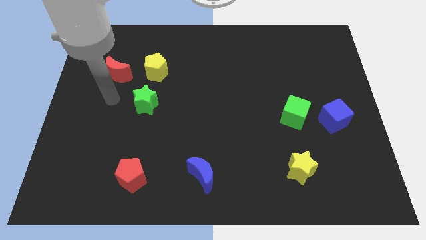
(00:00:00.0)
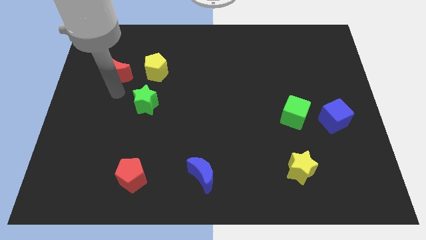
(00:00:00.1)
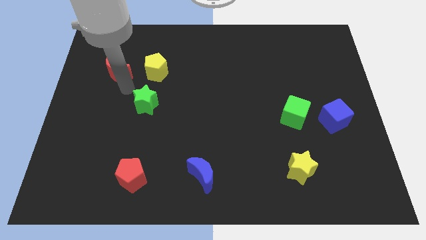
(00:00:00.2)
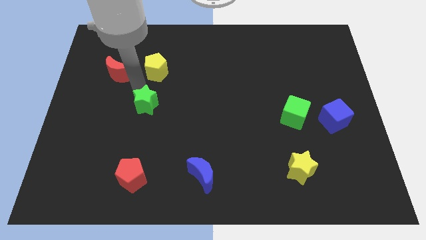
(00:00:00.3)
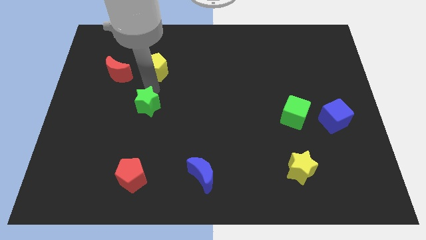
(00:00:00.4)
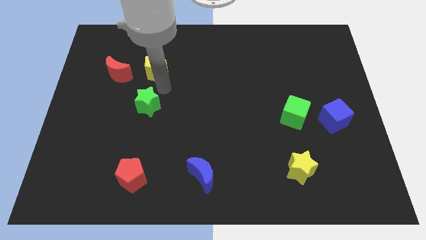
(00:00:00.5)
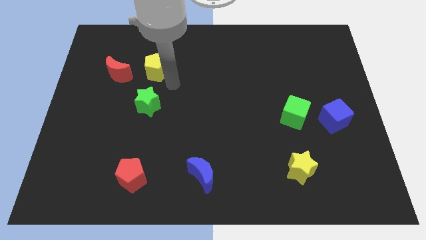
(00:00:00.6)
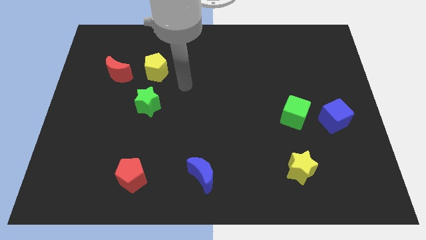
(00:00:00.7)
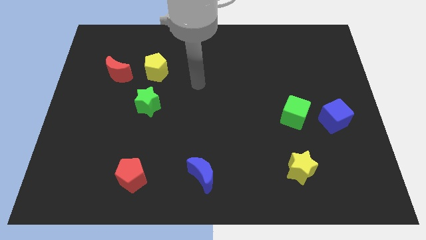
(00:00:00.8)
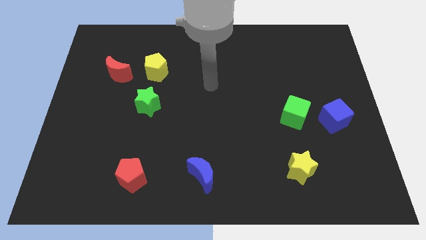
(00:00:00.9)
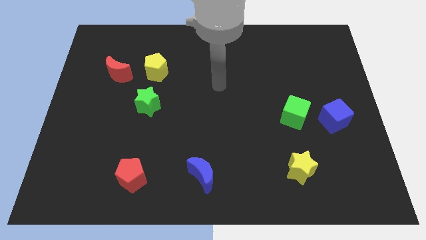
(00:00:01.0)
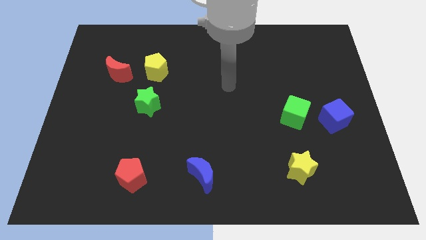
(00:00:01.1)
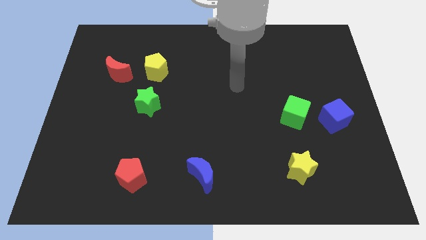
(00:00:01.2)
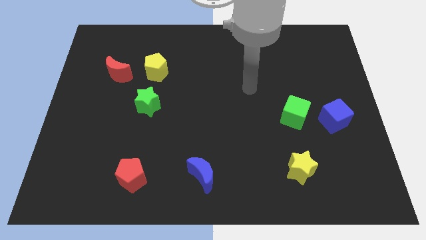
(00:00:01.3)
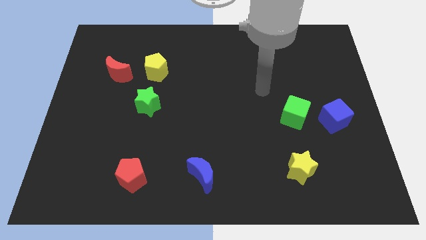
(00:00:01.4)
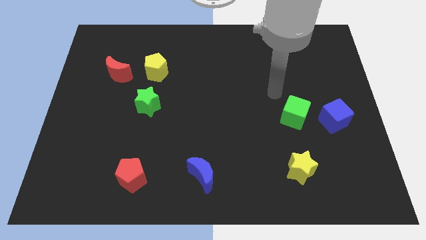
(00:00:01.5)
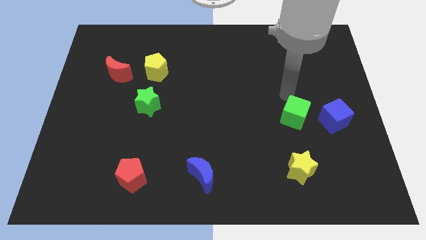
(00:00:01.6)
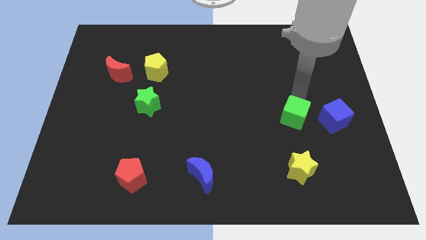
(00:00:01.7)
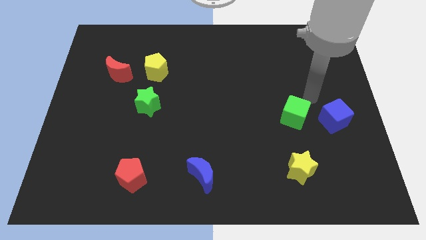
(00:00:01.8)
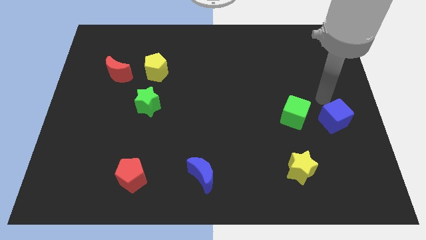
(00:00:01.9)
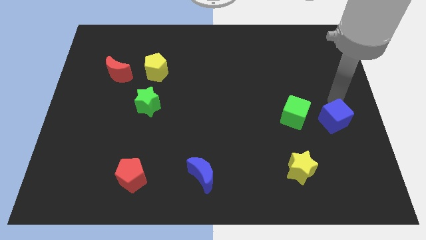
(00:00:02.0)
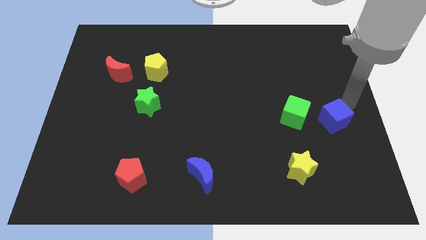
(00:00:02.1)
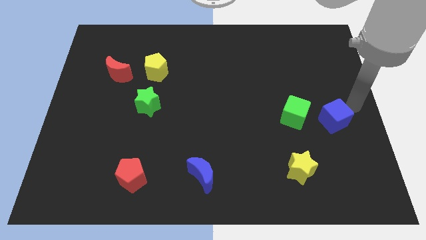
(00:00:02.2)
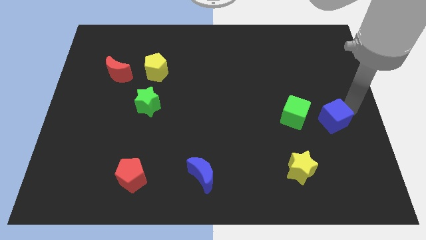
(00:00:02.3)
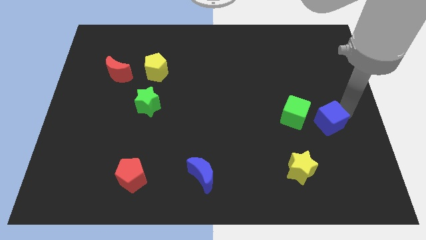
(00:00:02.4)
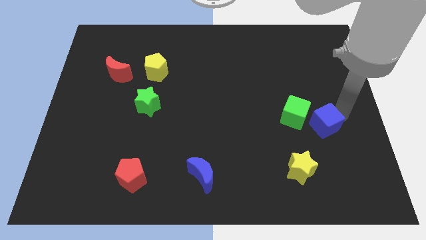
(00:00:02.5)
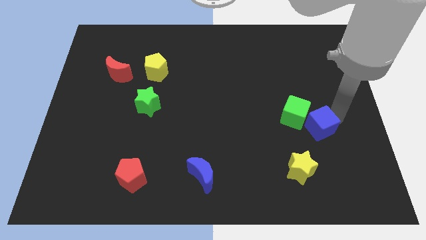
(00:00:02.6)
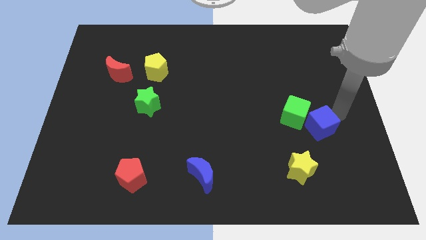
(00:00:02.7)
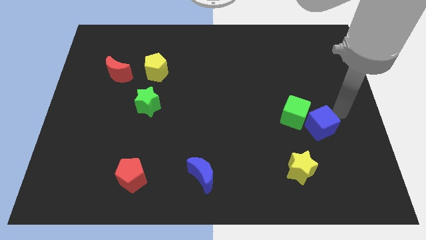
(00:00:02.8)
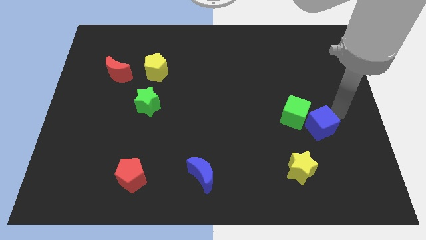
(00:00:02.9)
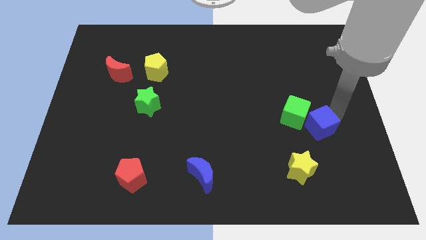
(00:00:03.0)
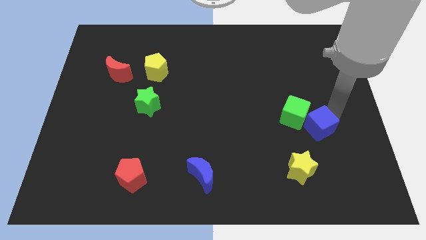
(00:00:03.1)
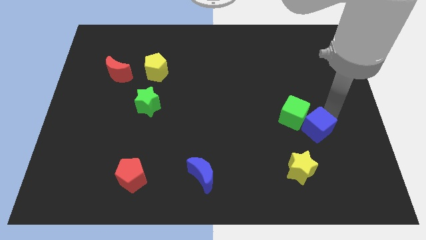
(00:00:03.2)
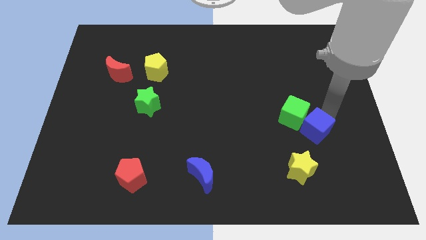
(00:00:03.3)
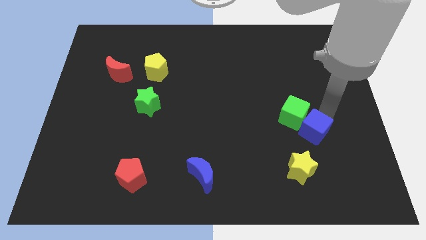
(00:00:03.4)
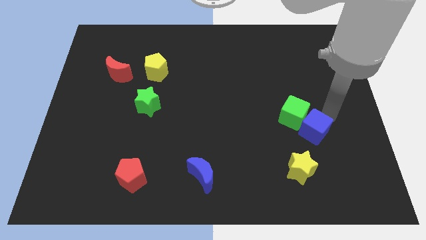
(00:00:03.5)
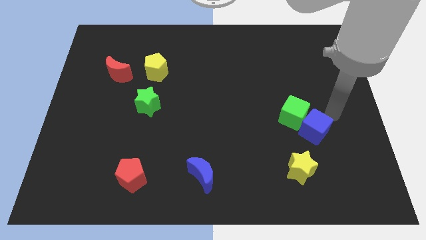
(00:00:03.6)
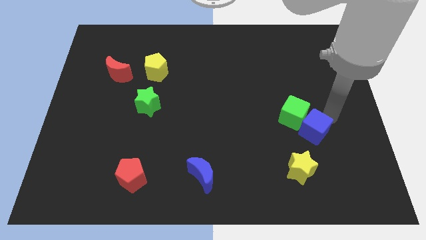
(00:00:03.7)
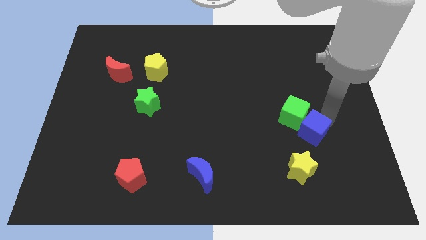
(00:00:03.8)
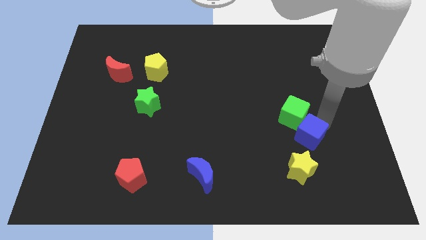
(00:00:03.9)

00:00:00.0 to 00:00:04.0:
slightly move the blue cube downwards and then to the left

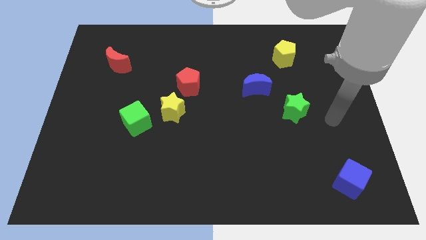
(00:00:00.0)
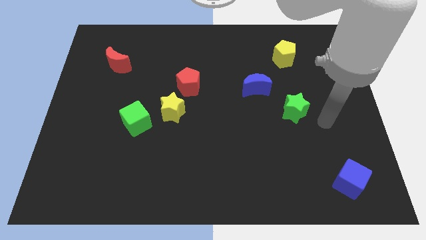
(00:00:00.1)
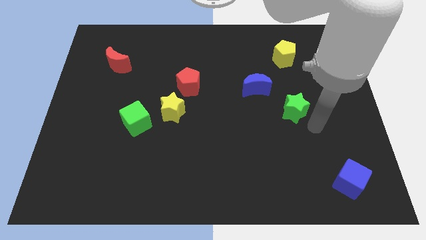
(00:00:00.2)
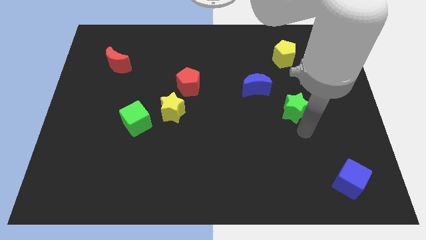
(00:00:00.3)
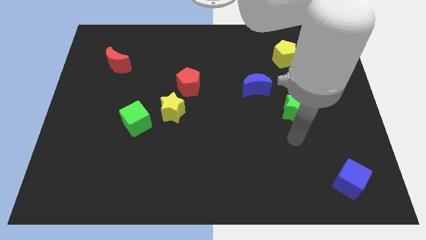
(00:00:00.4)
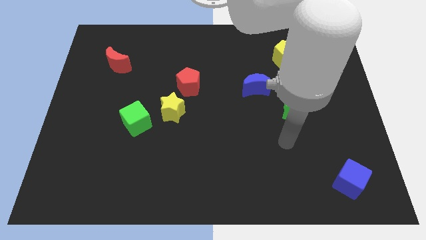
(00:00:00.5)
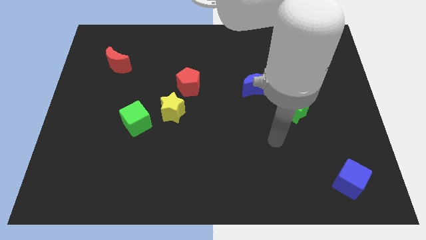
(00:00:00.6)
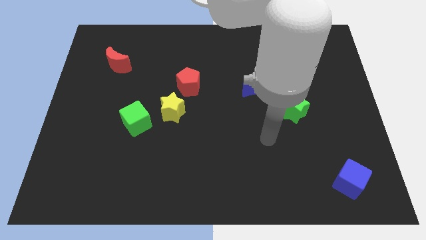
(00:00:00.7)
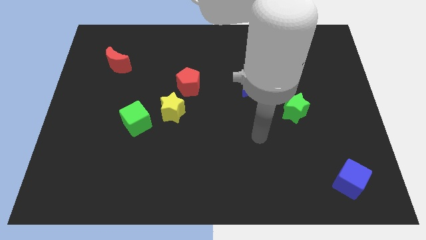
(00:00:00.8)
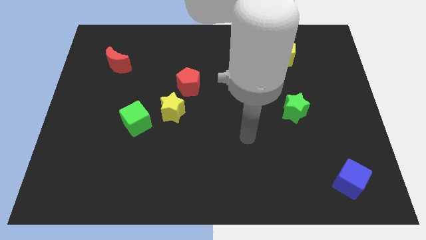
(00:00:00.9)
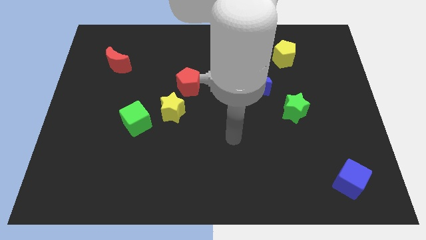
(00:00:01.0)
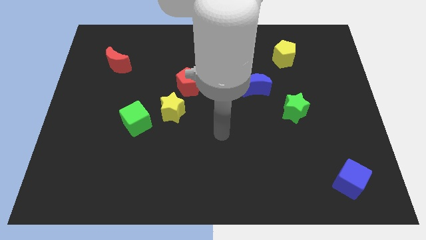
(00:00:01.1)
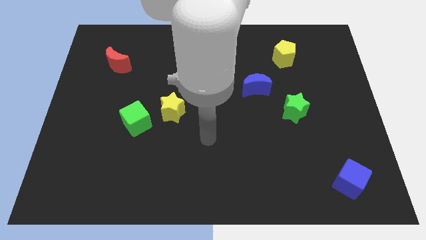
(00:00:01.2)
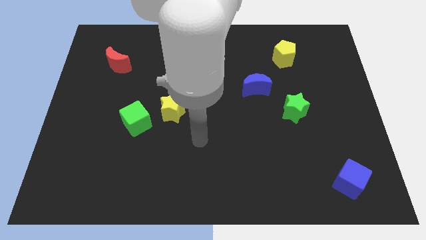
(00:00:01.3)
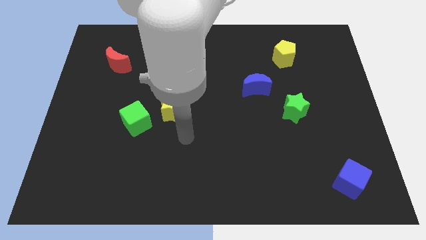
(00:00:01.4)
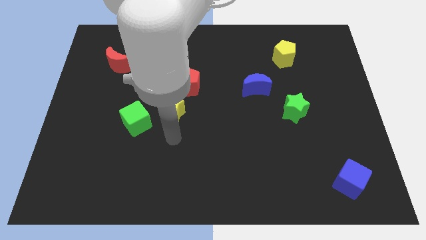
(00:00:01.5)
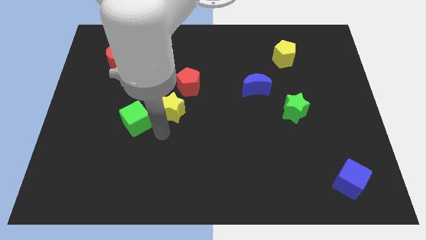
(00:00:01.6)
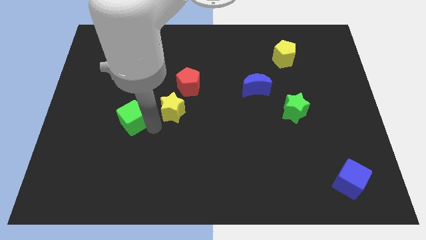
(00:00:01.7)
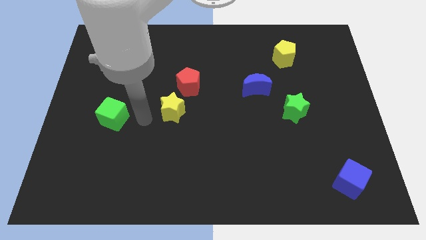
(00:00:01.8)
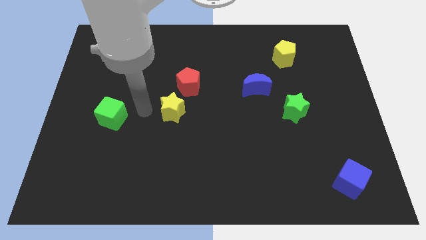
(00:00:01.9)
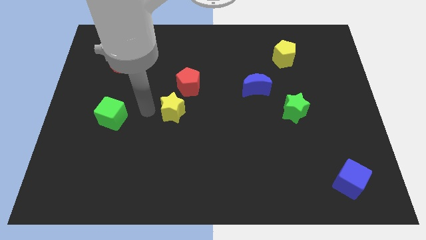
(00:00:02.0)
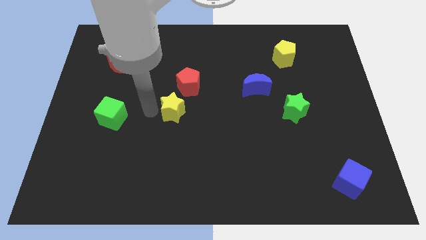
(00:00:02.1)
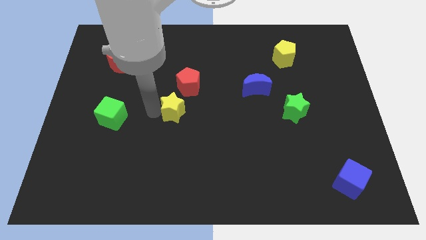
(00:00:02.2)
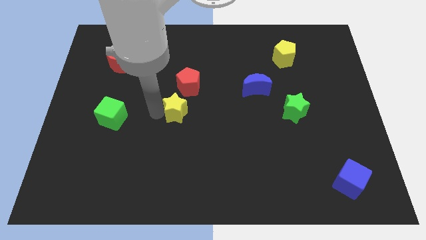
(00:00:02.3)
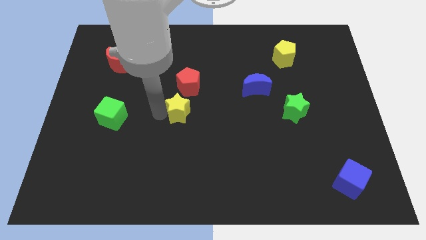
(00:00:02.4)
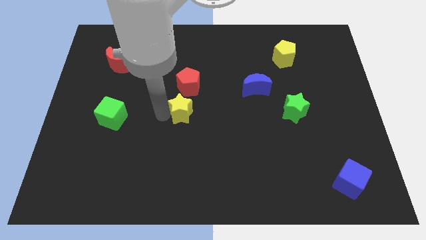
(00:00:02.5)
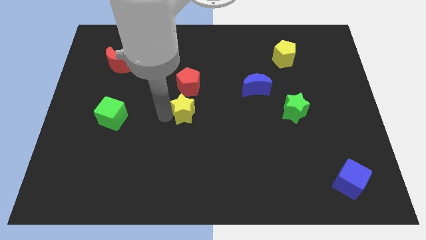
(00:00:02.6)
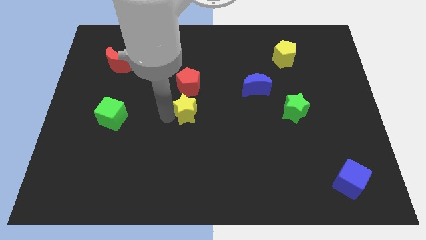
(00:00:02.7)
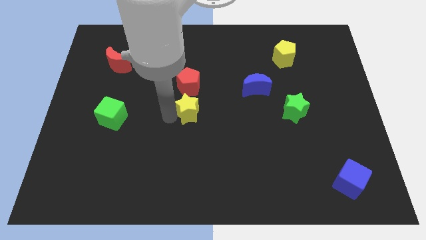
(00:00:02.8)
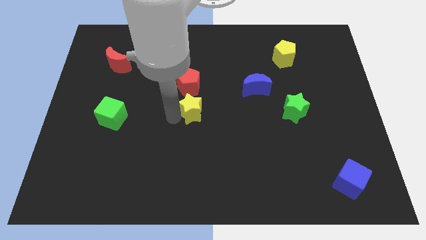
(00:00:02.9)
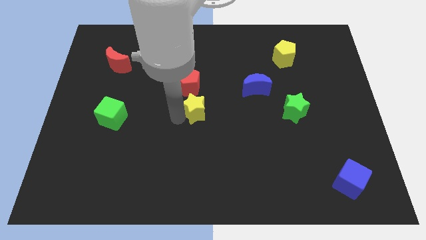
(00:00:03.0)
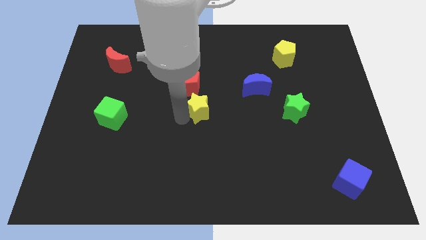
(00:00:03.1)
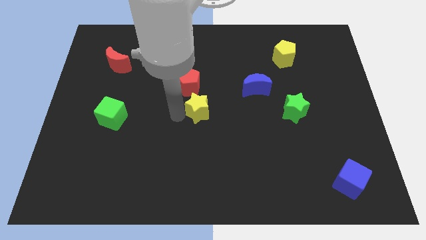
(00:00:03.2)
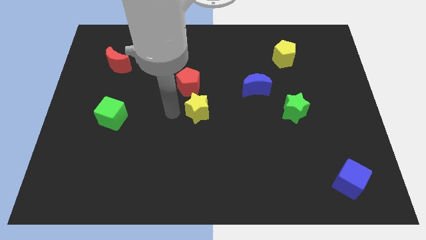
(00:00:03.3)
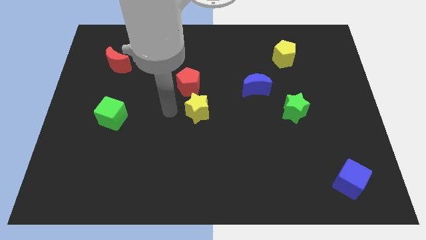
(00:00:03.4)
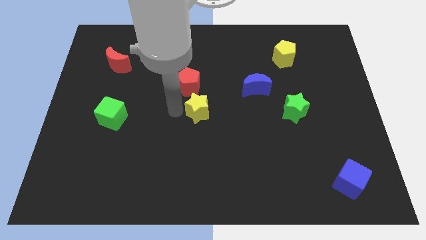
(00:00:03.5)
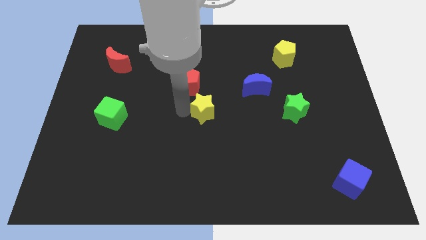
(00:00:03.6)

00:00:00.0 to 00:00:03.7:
slide the yellow star to the right somewhat

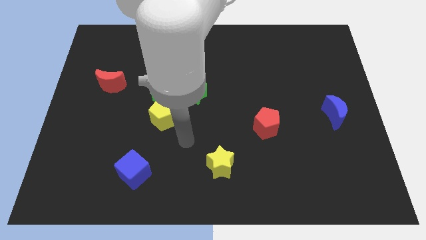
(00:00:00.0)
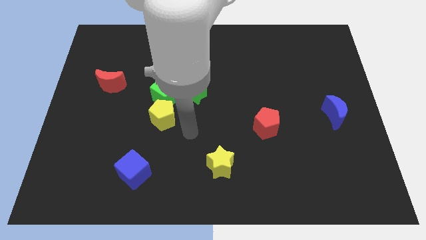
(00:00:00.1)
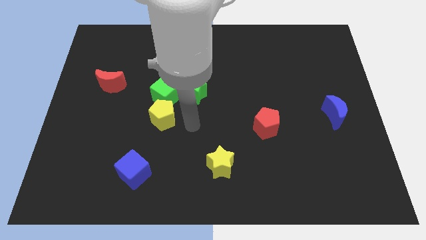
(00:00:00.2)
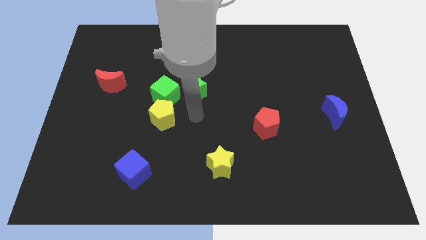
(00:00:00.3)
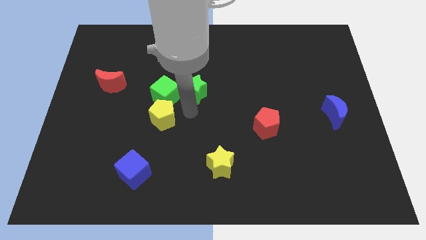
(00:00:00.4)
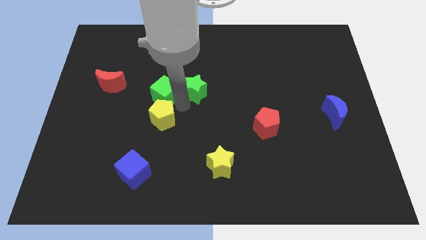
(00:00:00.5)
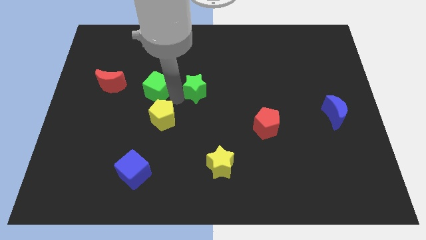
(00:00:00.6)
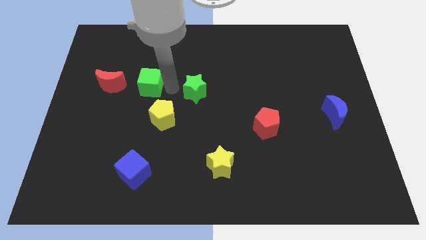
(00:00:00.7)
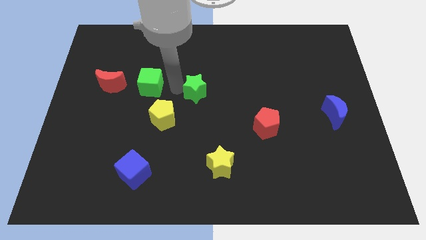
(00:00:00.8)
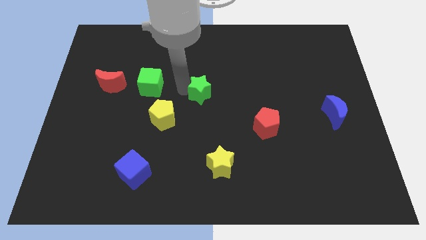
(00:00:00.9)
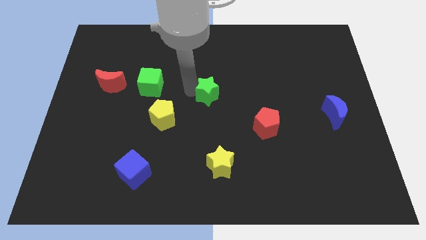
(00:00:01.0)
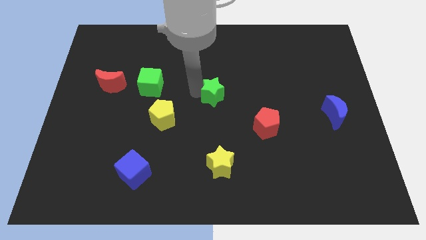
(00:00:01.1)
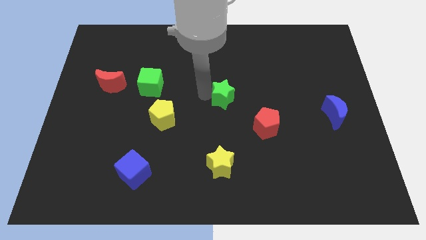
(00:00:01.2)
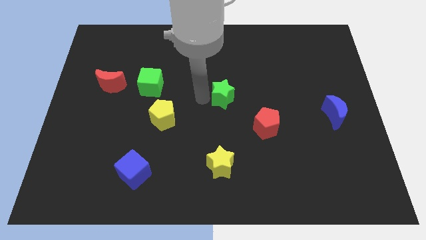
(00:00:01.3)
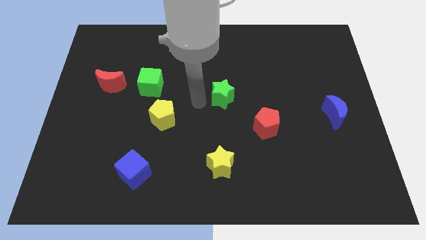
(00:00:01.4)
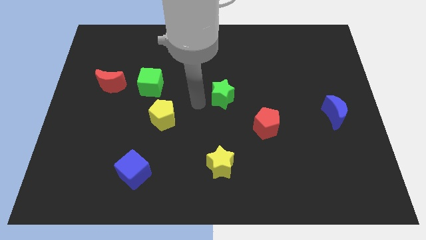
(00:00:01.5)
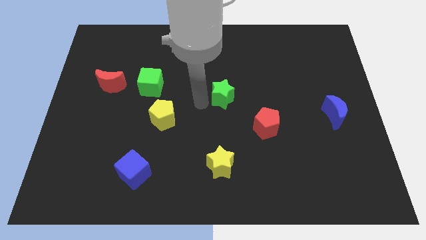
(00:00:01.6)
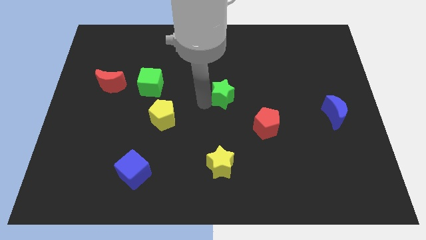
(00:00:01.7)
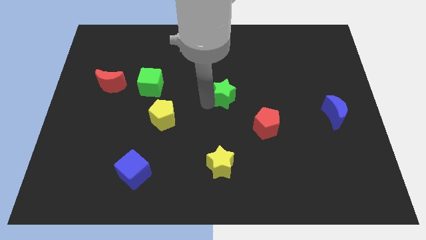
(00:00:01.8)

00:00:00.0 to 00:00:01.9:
move the green star to the right somewhat
